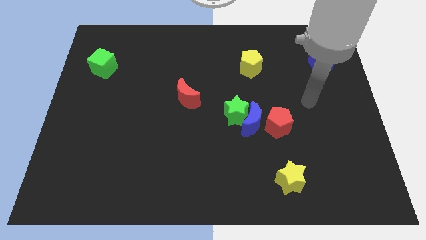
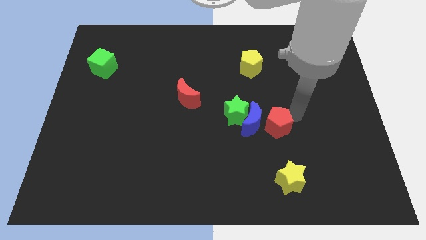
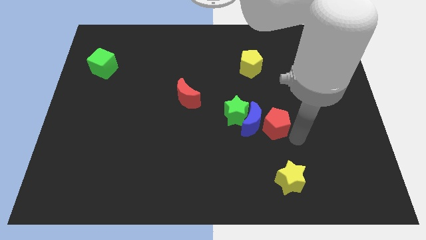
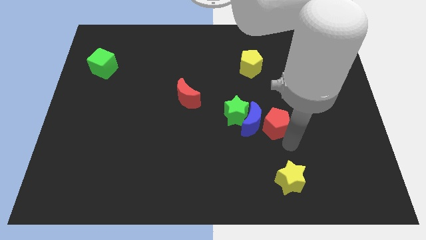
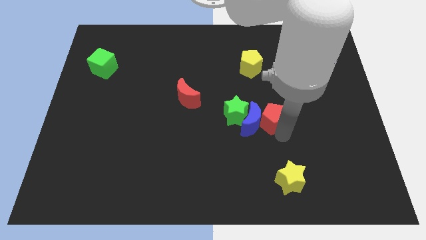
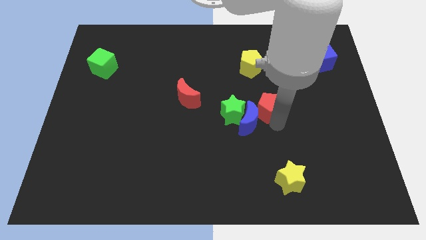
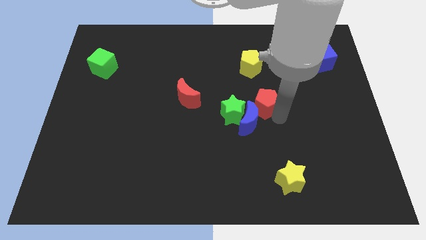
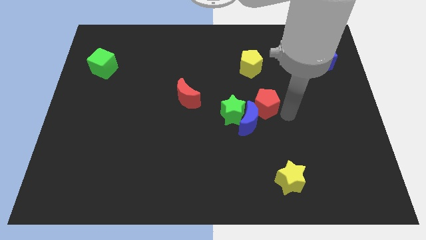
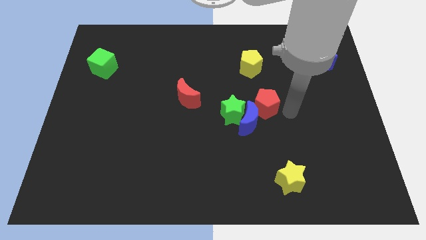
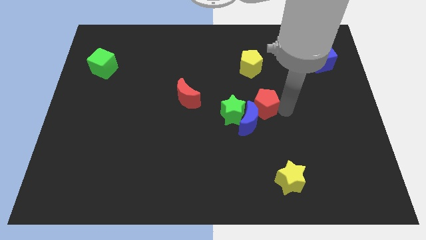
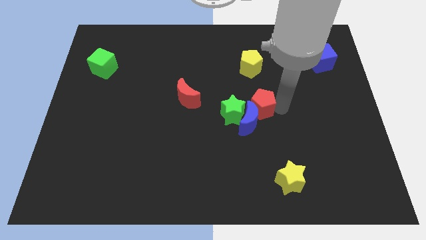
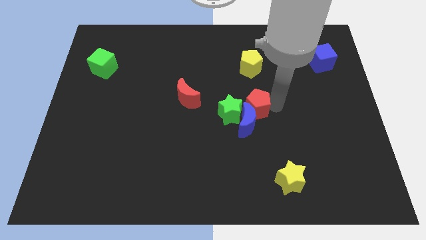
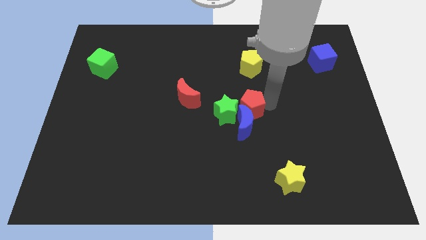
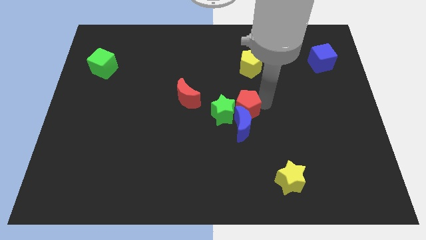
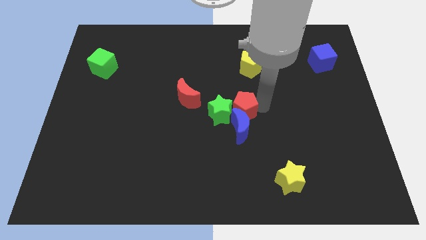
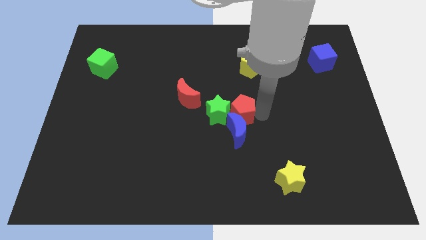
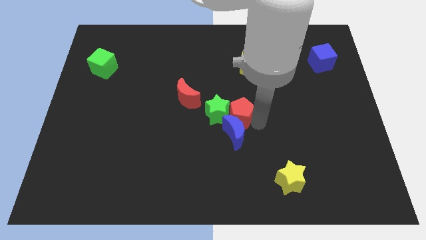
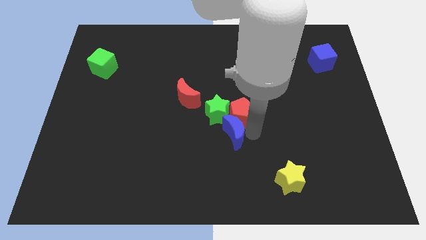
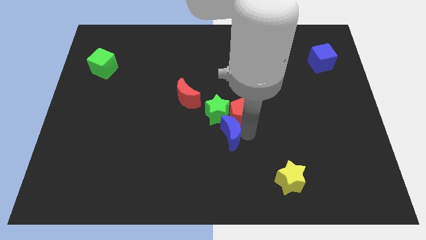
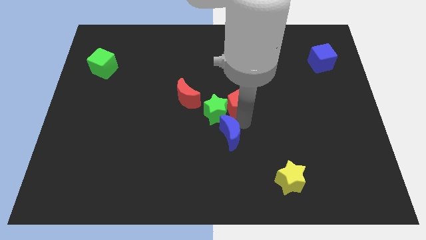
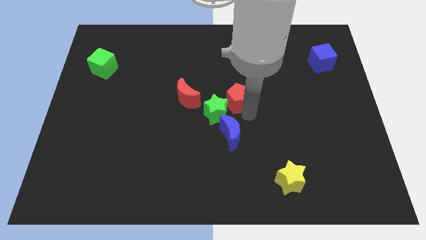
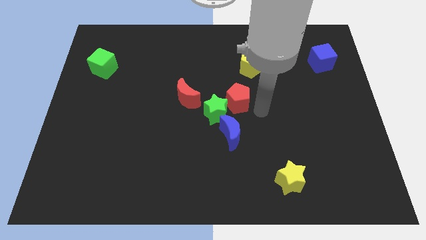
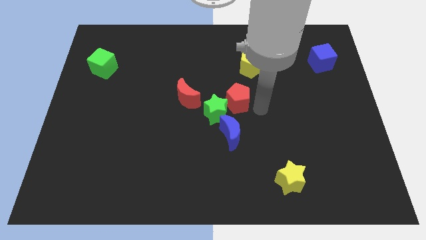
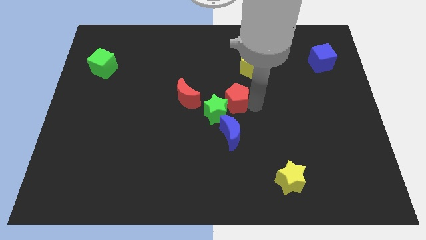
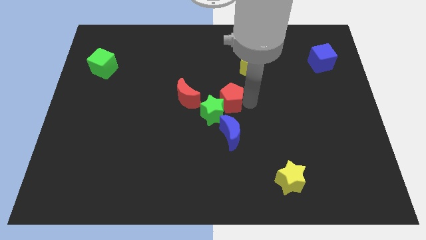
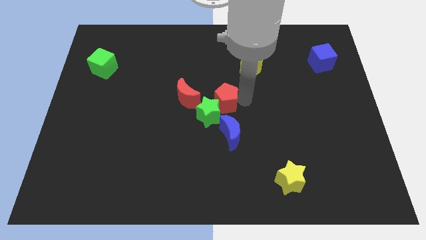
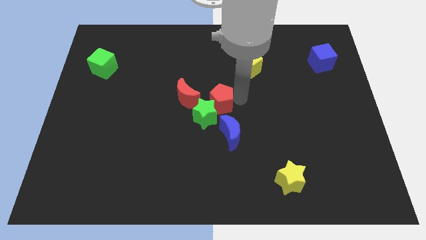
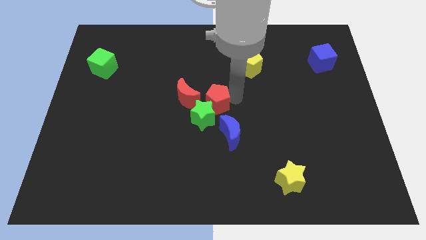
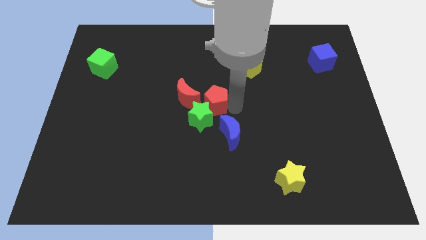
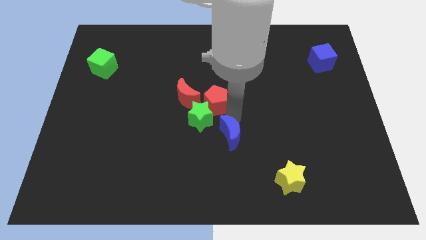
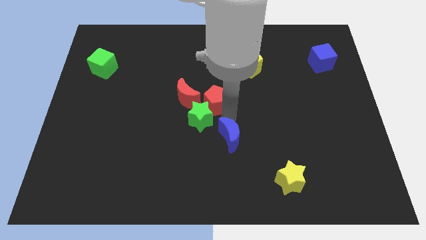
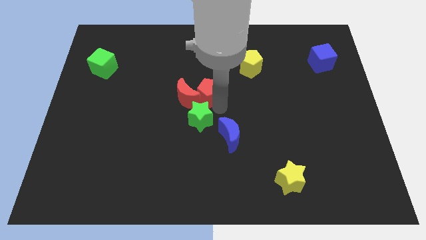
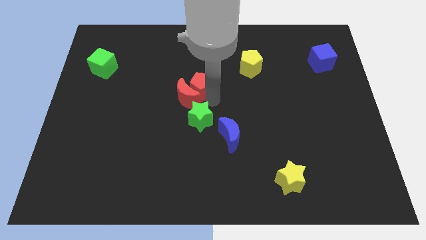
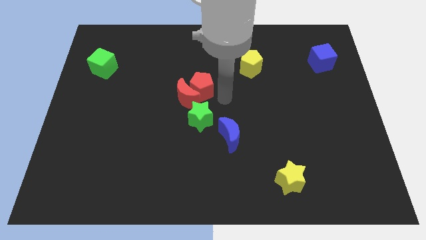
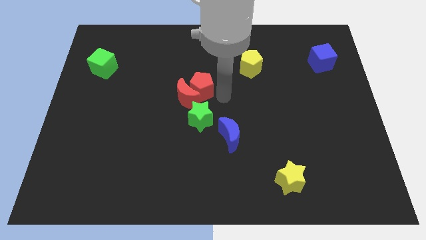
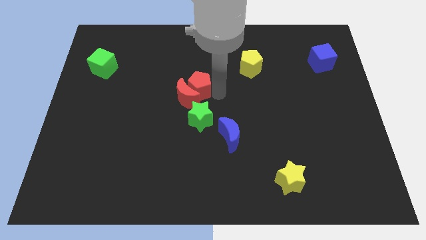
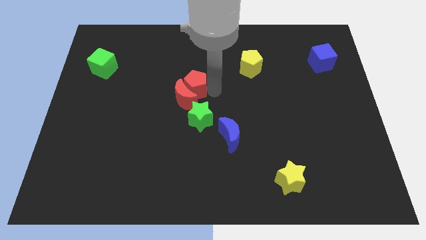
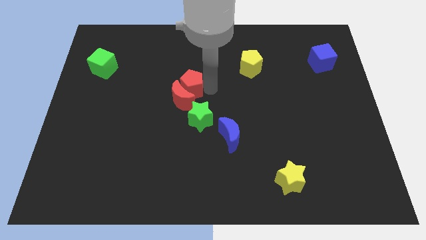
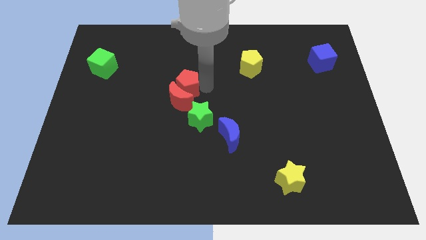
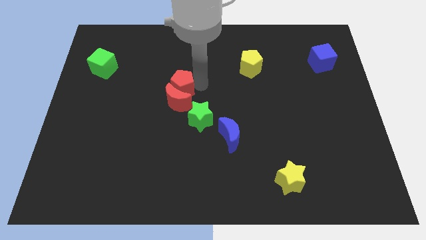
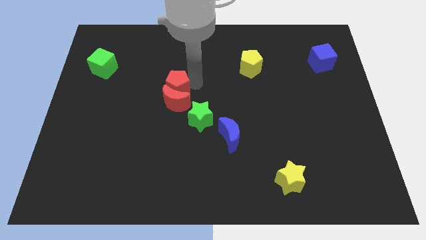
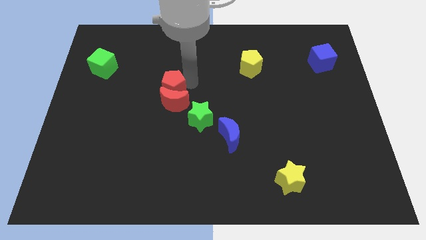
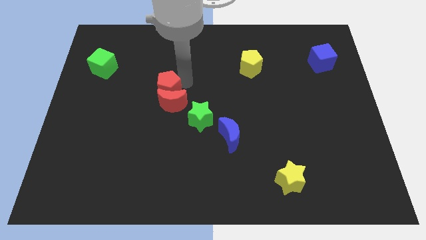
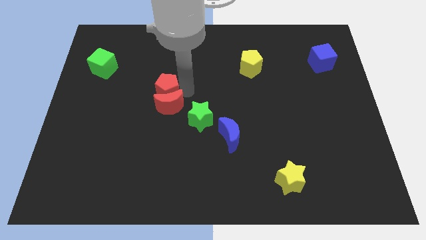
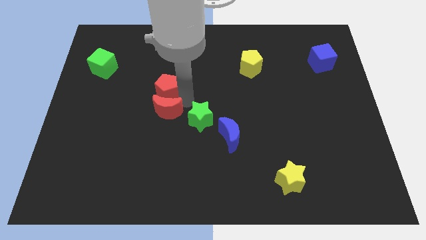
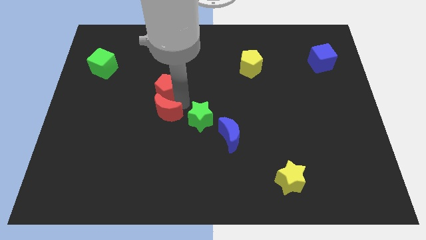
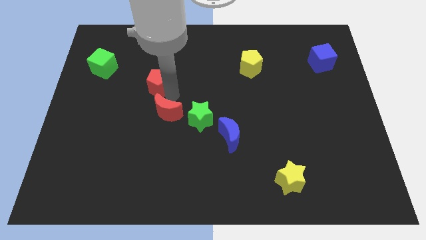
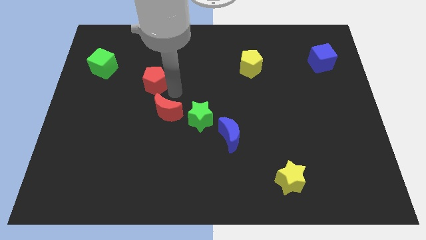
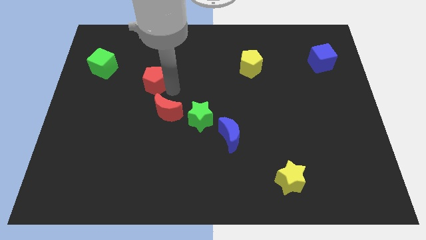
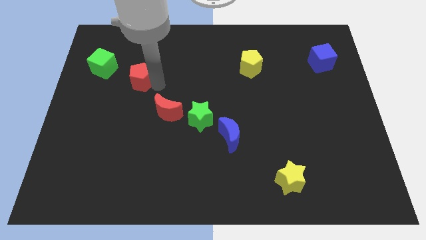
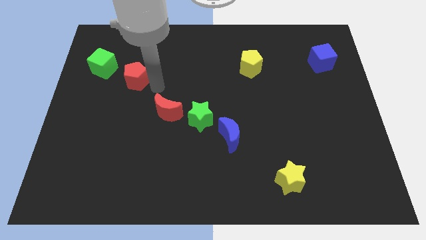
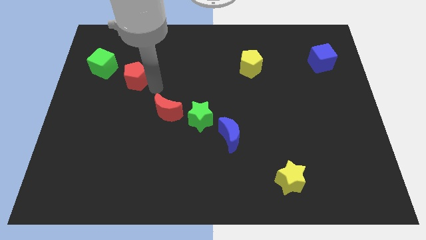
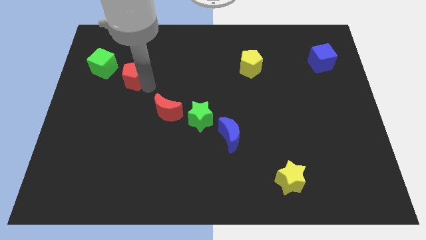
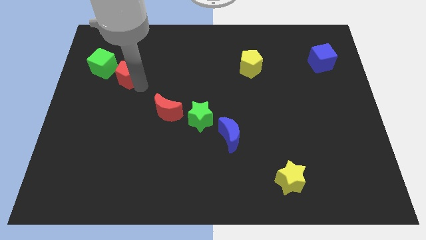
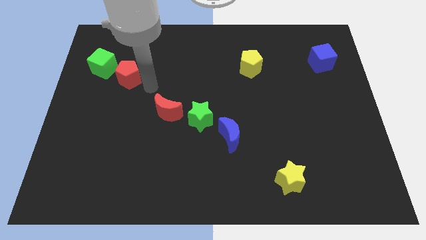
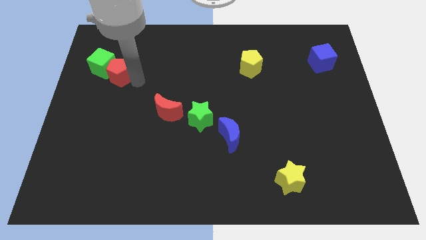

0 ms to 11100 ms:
move the red pentagon to the green cube

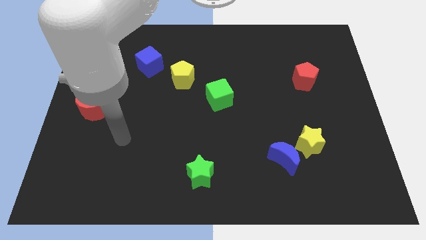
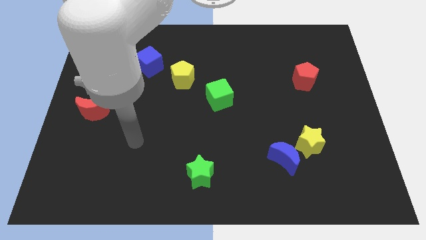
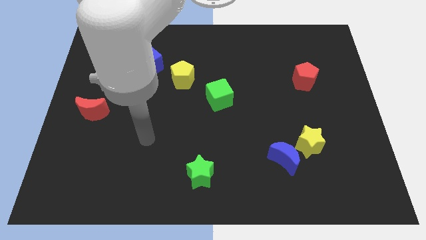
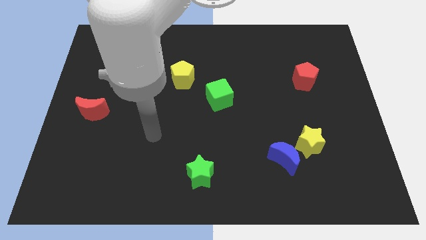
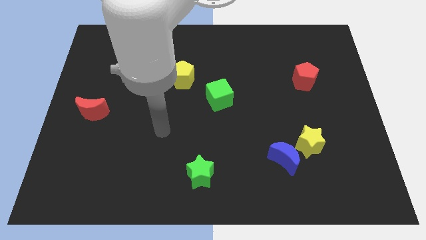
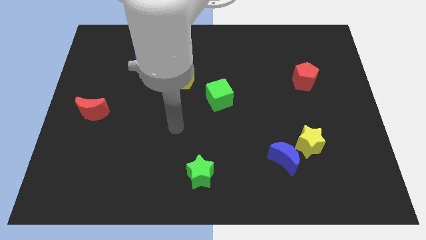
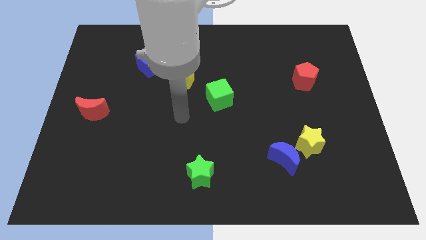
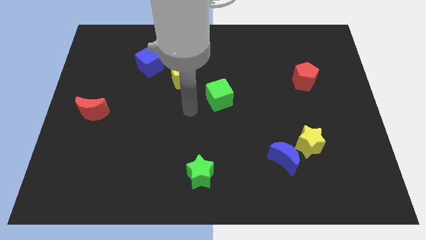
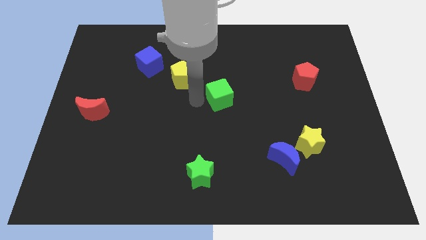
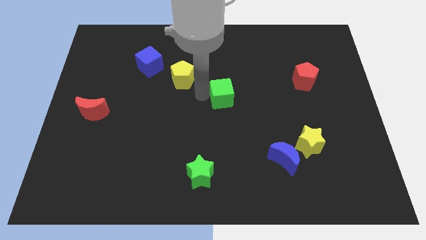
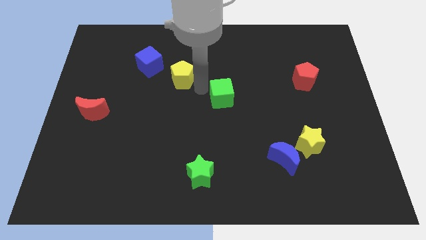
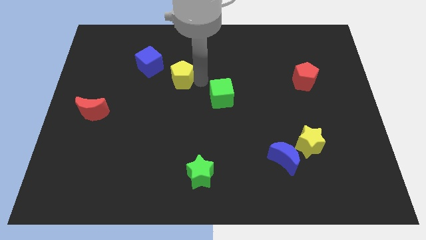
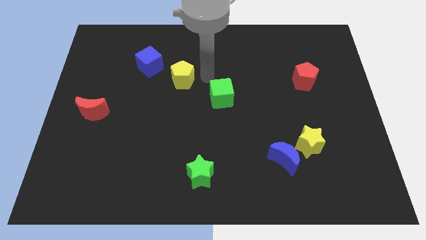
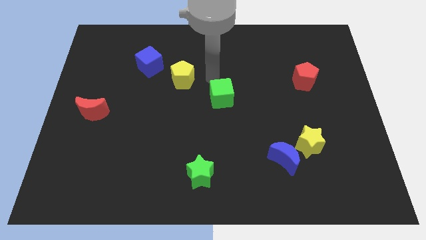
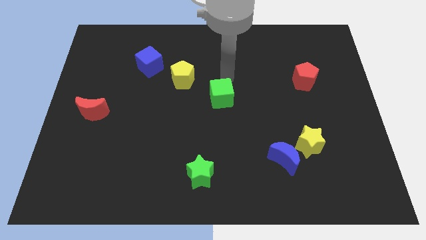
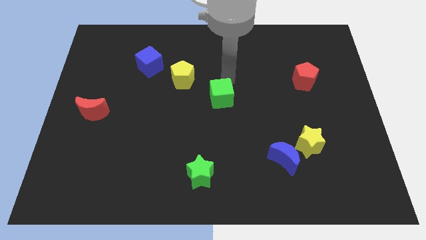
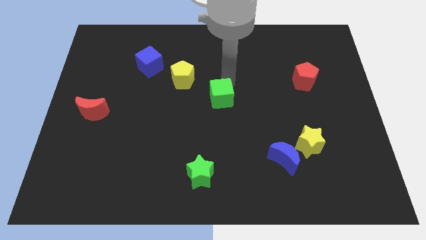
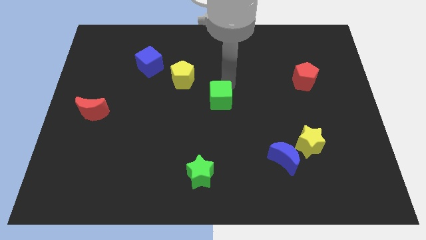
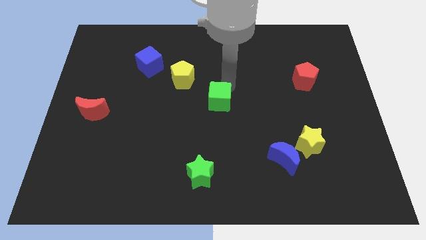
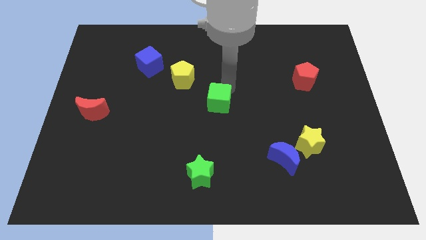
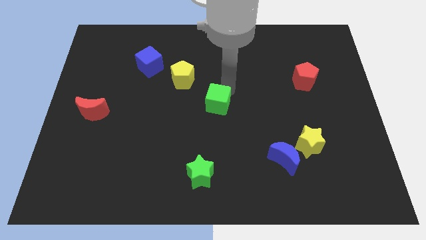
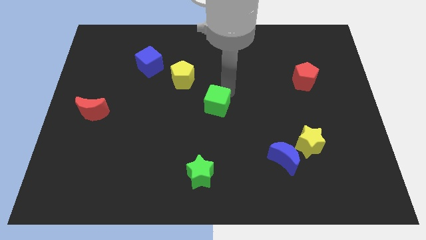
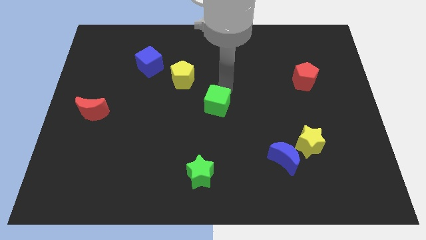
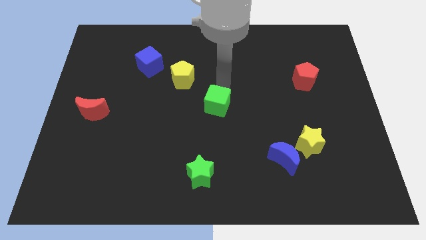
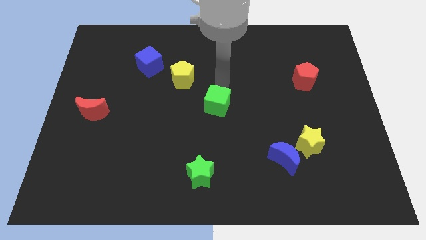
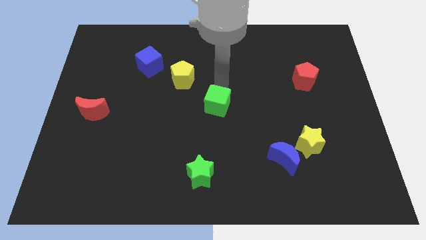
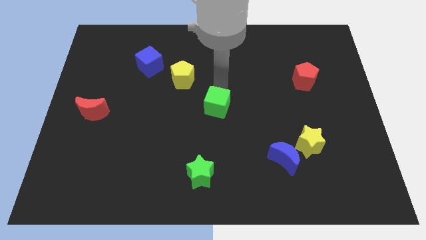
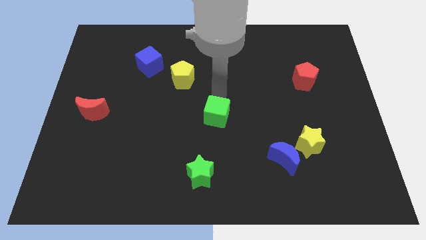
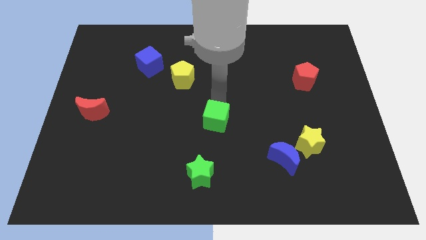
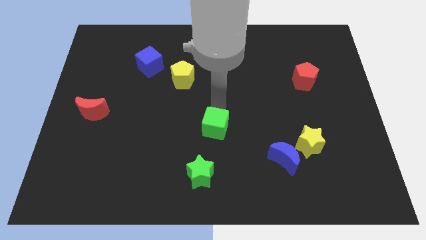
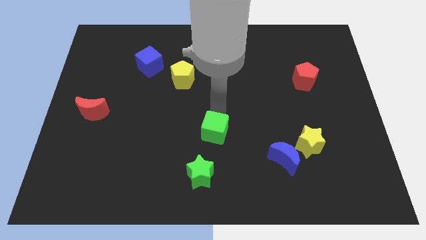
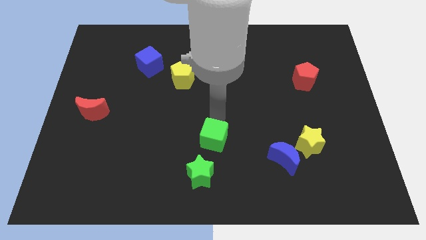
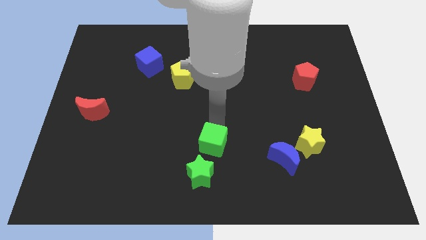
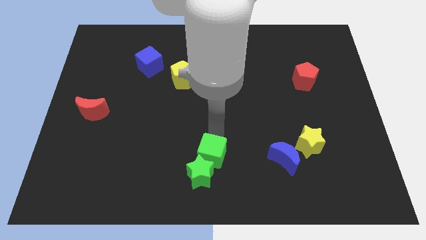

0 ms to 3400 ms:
push the green cube towards the green star
